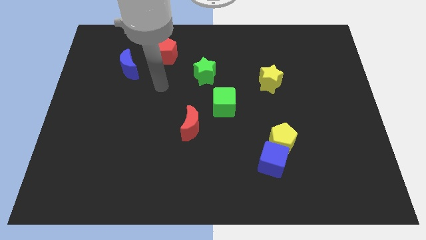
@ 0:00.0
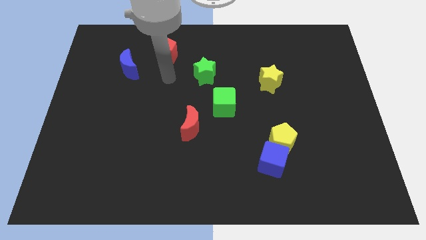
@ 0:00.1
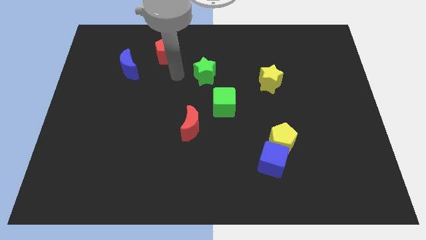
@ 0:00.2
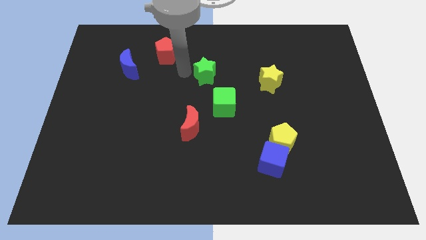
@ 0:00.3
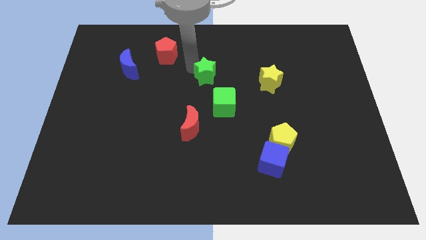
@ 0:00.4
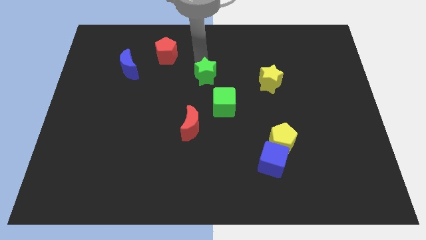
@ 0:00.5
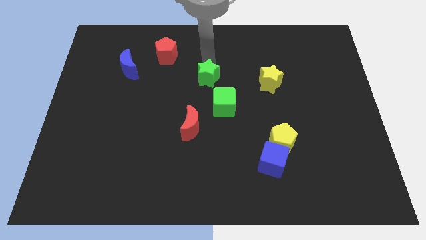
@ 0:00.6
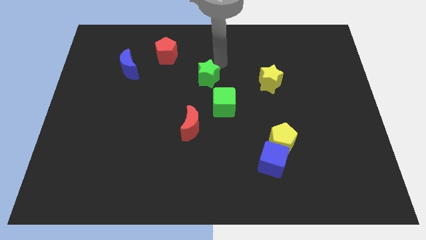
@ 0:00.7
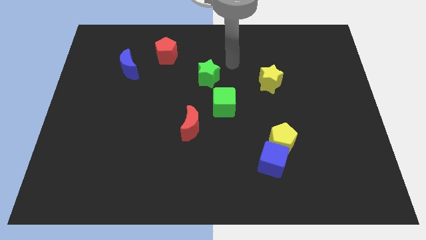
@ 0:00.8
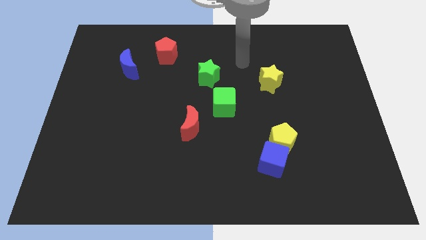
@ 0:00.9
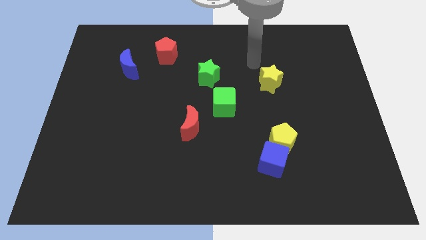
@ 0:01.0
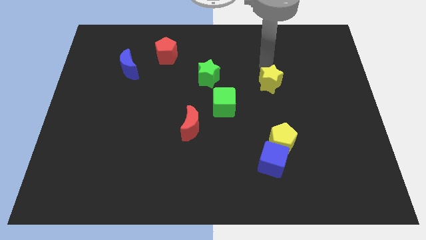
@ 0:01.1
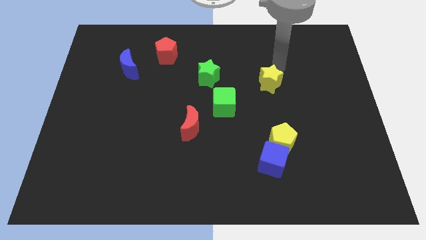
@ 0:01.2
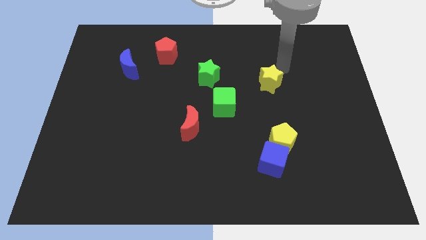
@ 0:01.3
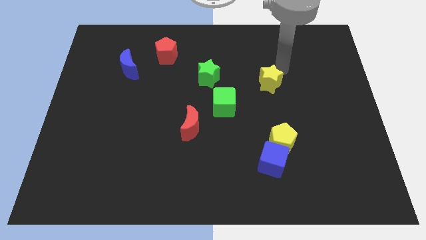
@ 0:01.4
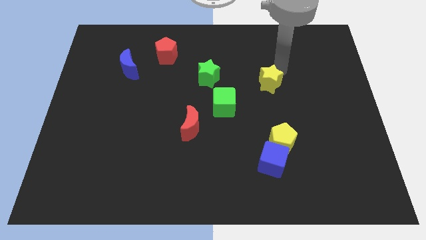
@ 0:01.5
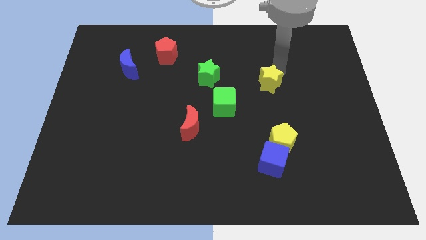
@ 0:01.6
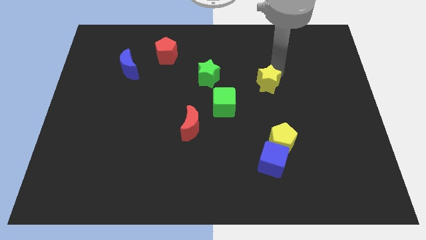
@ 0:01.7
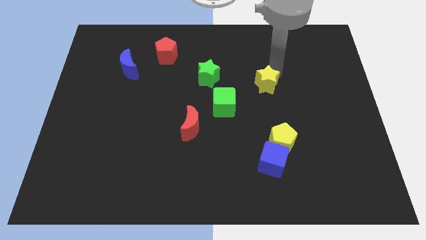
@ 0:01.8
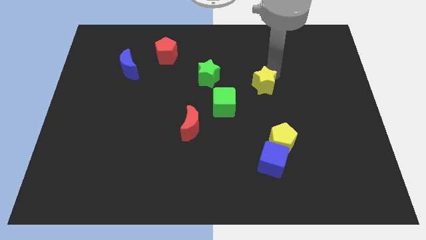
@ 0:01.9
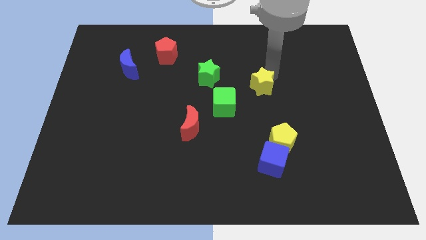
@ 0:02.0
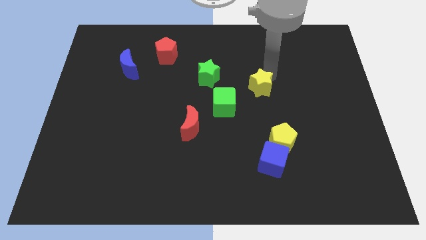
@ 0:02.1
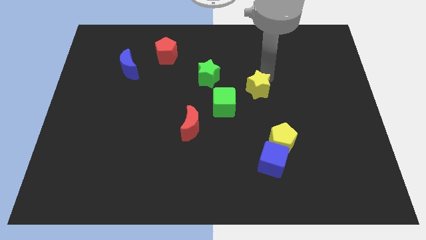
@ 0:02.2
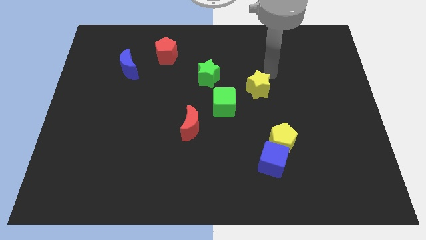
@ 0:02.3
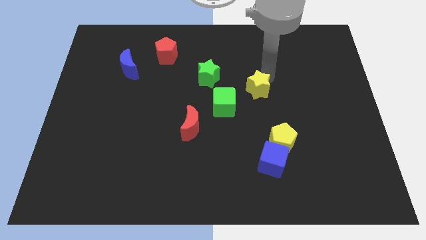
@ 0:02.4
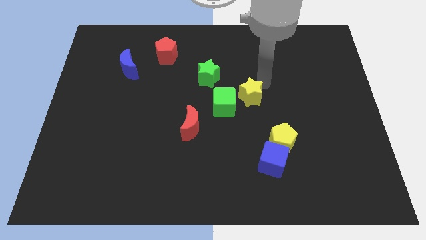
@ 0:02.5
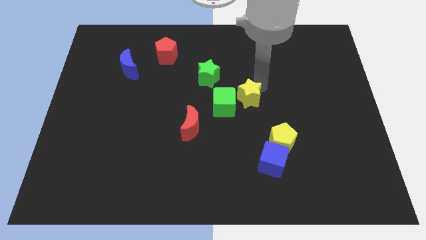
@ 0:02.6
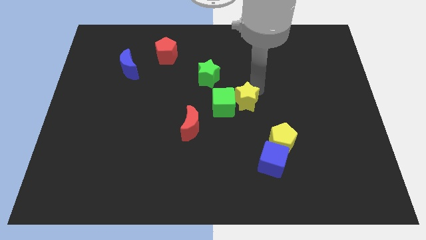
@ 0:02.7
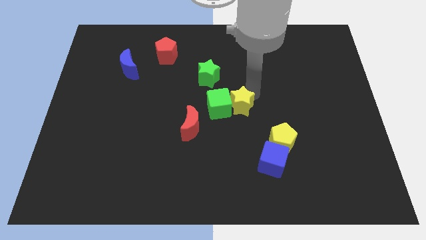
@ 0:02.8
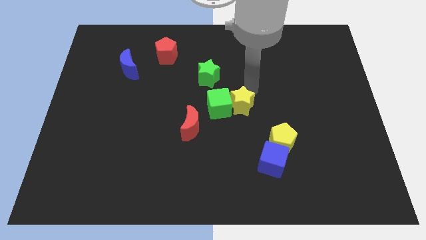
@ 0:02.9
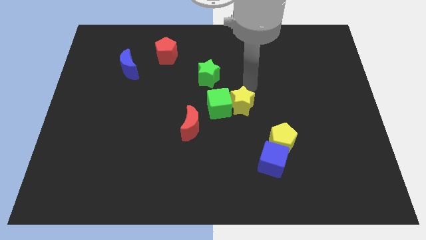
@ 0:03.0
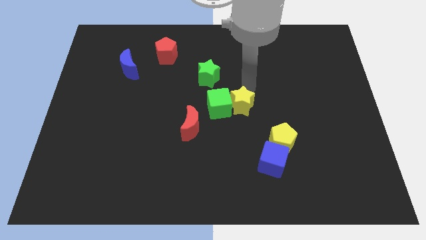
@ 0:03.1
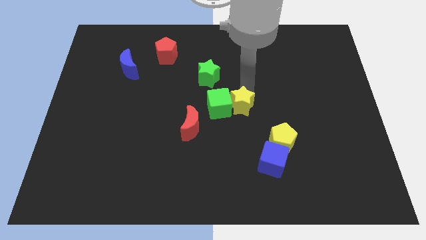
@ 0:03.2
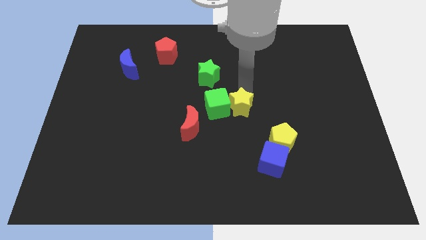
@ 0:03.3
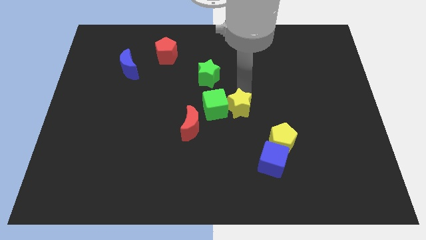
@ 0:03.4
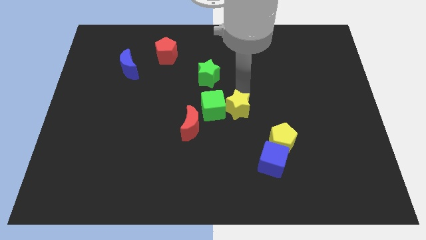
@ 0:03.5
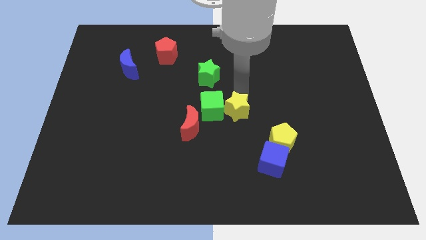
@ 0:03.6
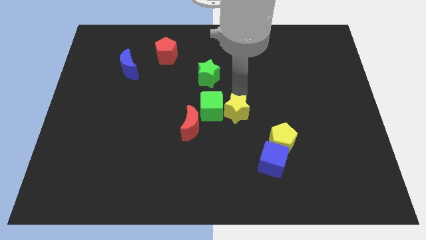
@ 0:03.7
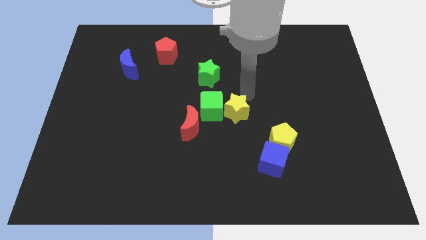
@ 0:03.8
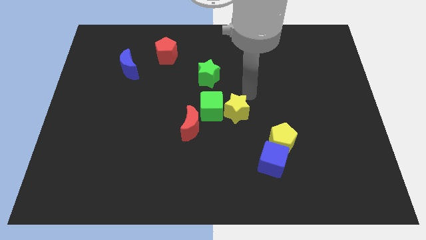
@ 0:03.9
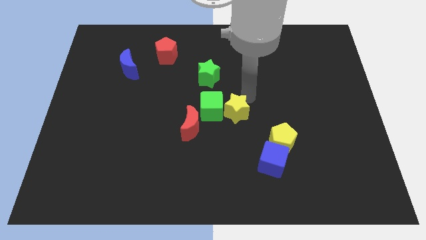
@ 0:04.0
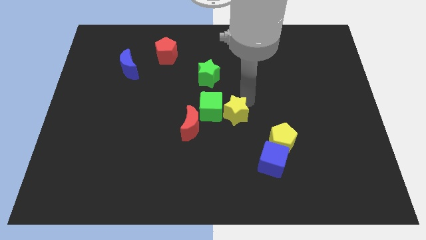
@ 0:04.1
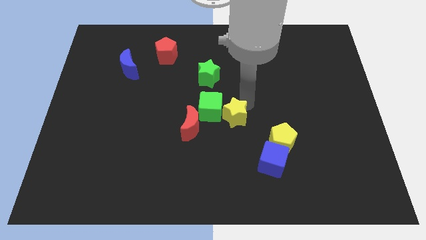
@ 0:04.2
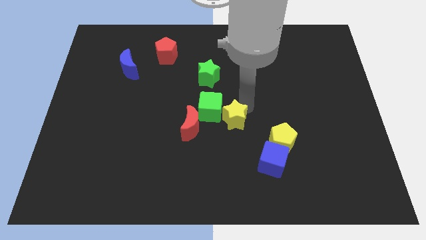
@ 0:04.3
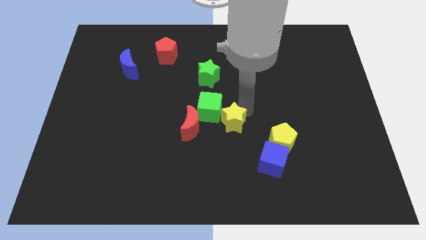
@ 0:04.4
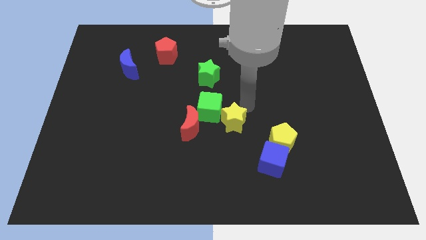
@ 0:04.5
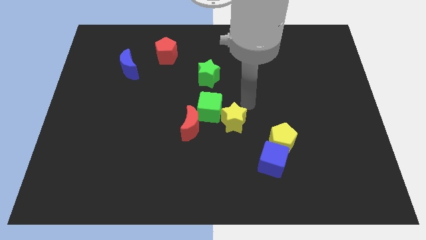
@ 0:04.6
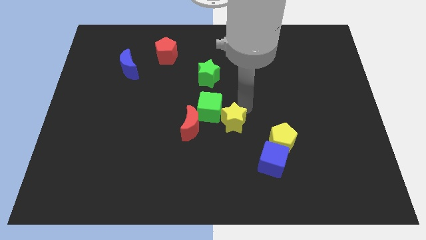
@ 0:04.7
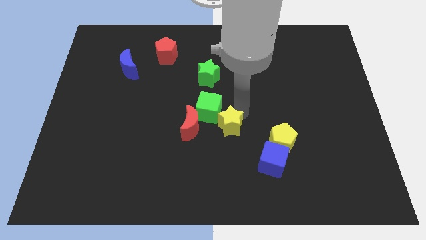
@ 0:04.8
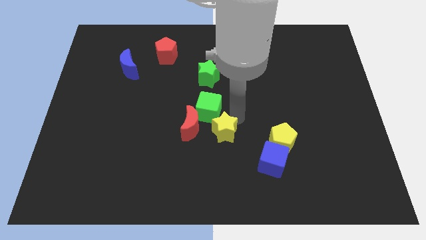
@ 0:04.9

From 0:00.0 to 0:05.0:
push the yellow star to the bottom right side of the red moon

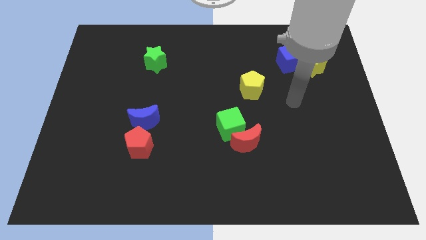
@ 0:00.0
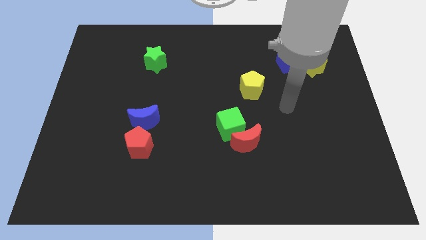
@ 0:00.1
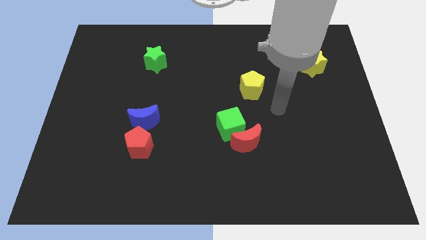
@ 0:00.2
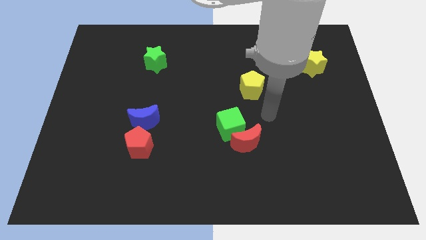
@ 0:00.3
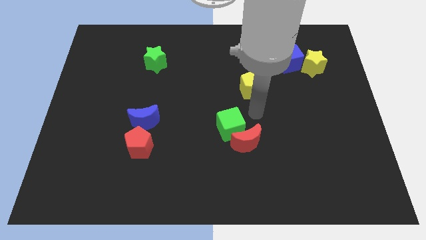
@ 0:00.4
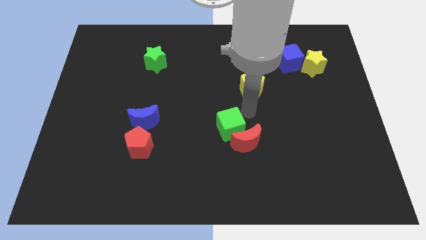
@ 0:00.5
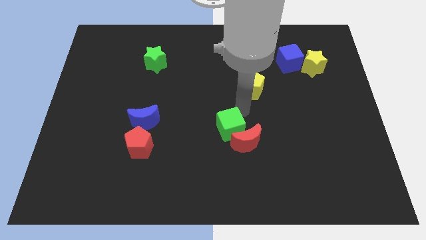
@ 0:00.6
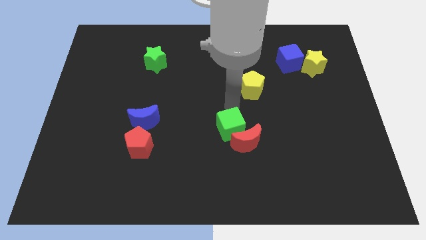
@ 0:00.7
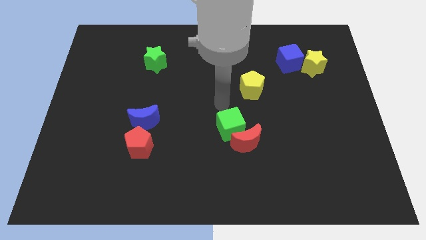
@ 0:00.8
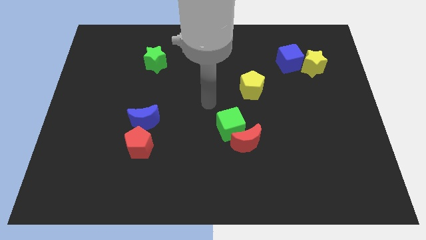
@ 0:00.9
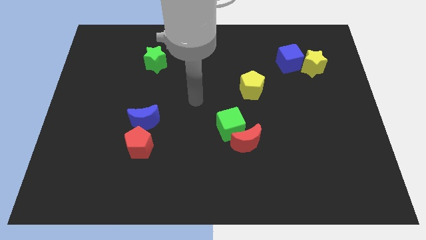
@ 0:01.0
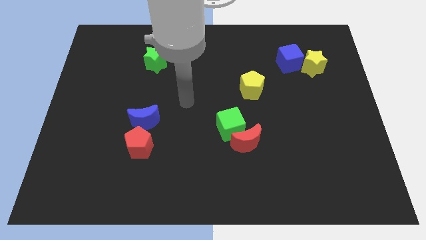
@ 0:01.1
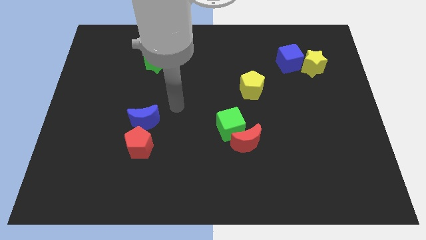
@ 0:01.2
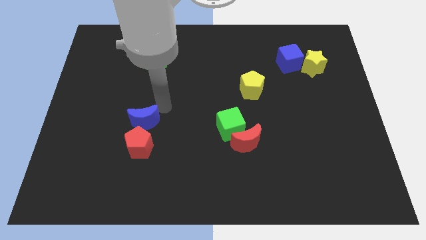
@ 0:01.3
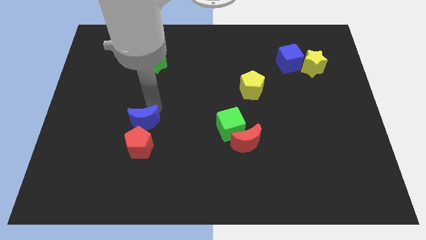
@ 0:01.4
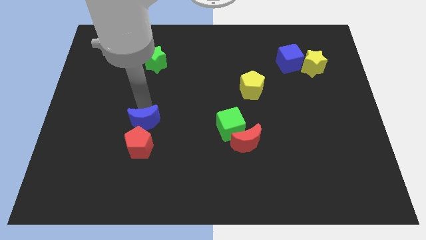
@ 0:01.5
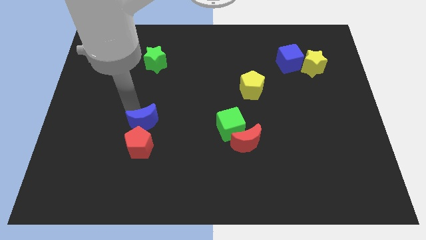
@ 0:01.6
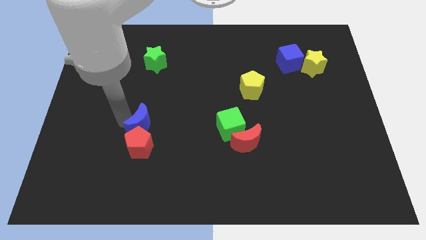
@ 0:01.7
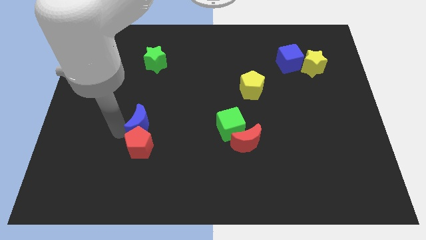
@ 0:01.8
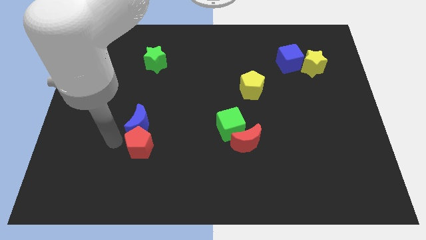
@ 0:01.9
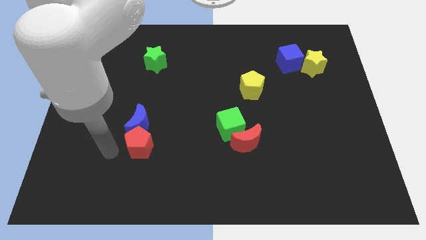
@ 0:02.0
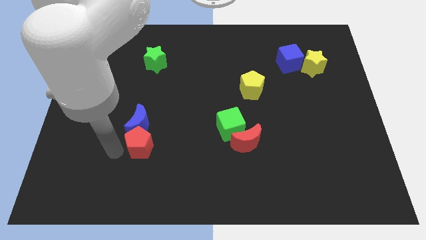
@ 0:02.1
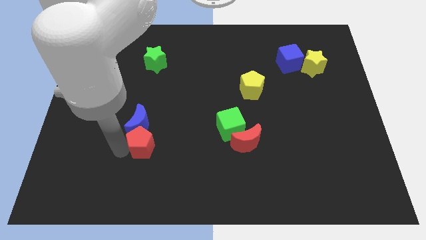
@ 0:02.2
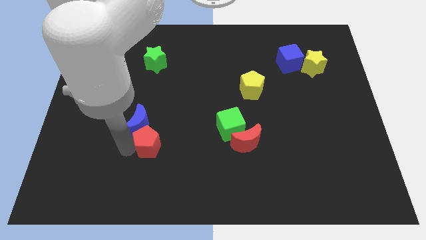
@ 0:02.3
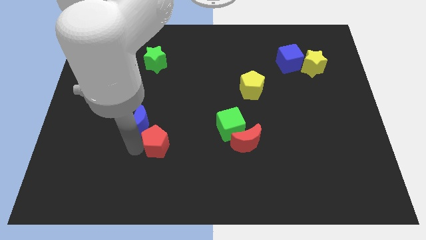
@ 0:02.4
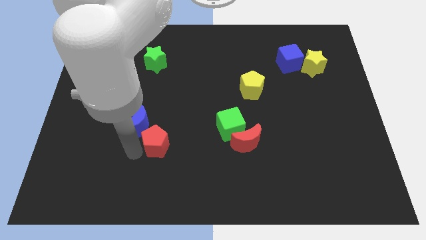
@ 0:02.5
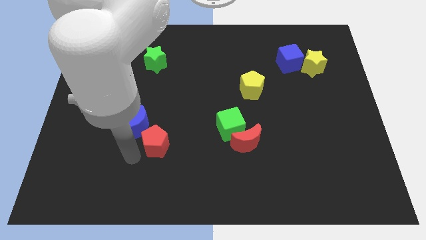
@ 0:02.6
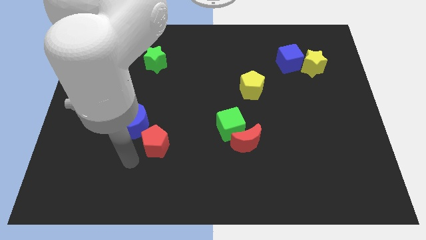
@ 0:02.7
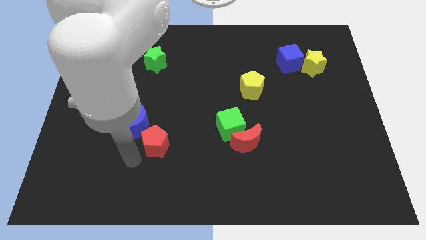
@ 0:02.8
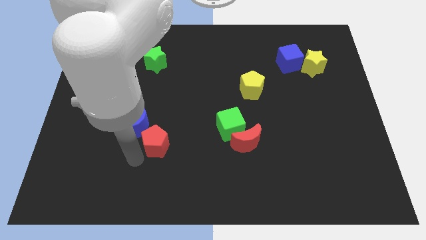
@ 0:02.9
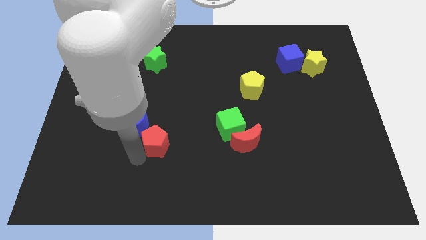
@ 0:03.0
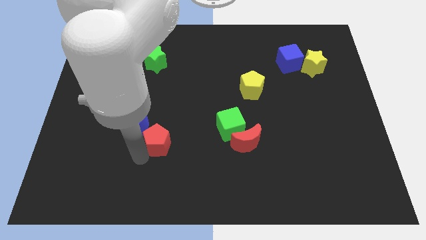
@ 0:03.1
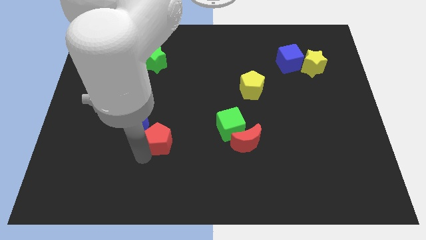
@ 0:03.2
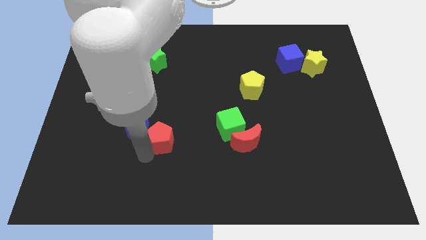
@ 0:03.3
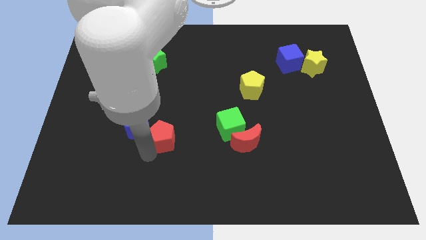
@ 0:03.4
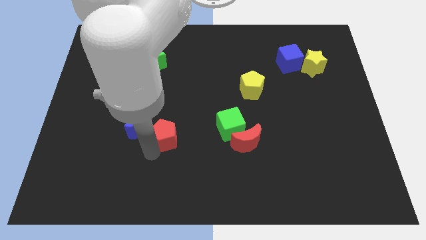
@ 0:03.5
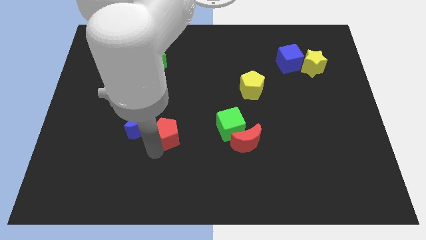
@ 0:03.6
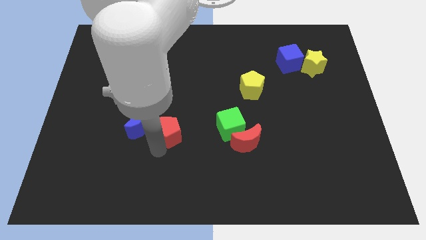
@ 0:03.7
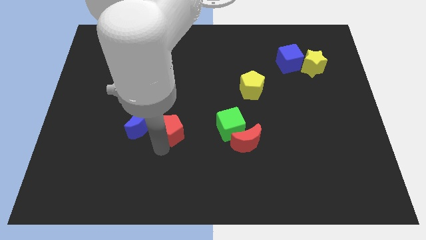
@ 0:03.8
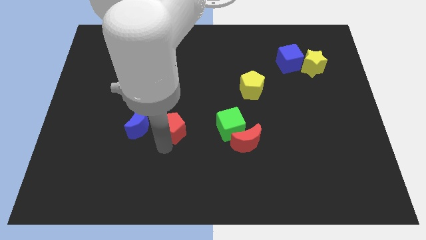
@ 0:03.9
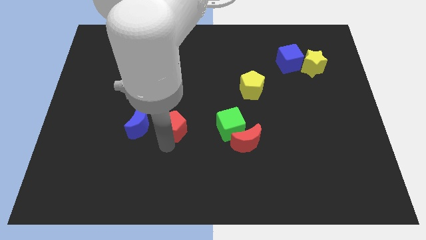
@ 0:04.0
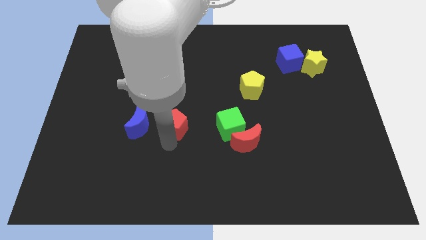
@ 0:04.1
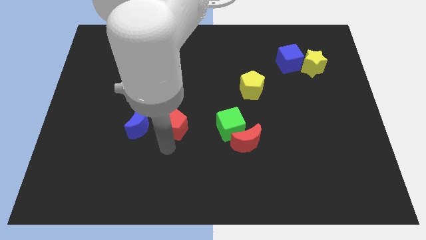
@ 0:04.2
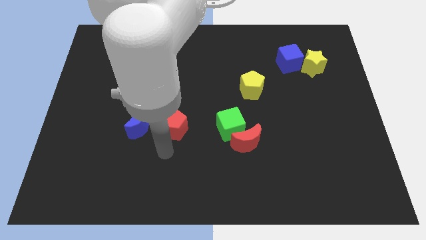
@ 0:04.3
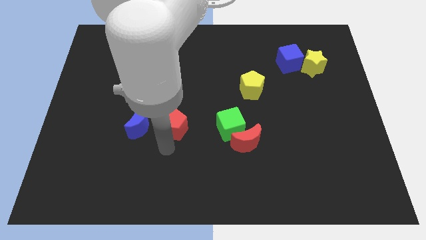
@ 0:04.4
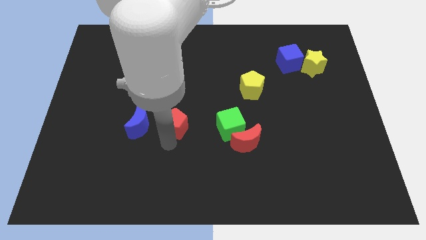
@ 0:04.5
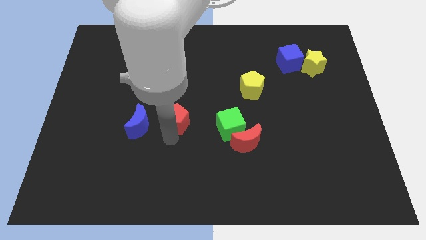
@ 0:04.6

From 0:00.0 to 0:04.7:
slide the red pentagon to the top right side of the blue moon
